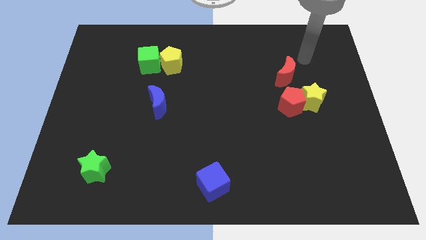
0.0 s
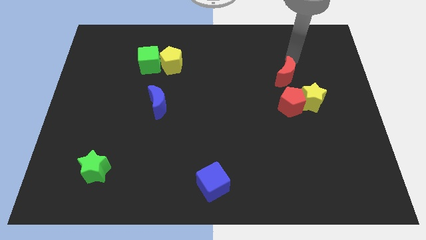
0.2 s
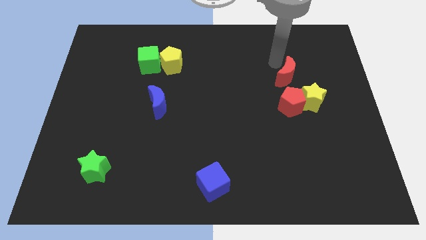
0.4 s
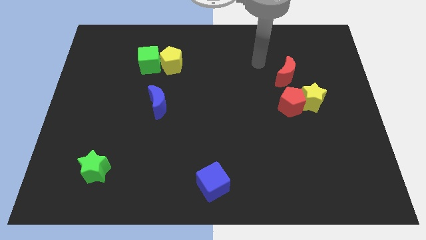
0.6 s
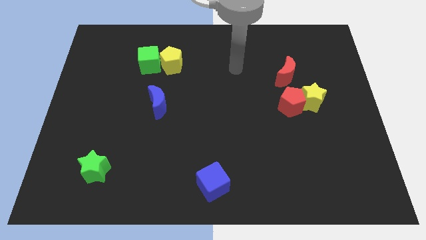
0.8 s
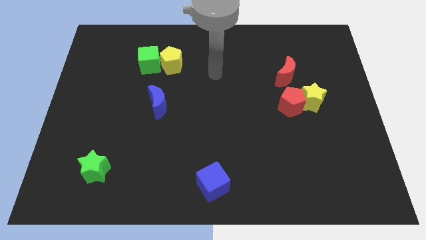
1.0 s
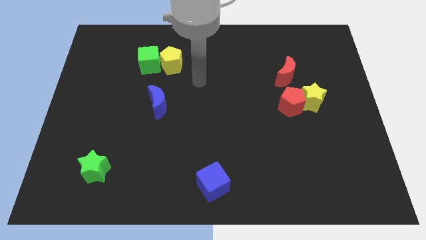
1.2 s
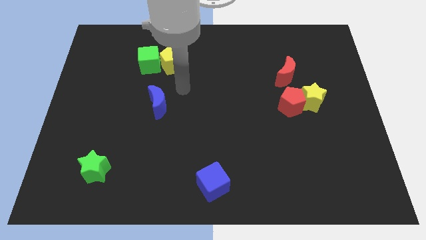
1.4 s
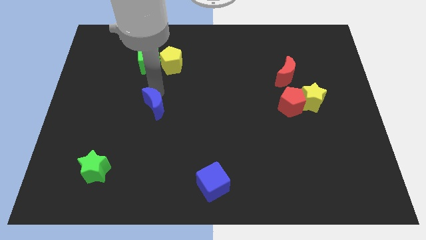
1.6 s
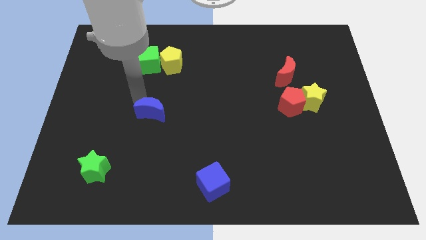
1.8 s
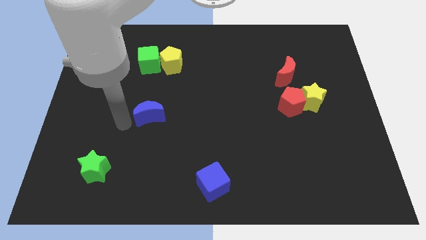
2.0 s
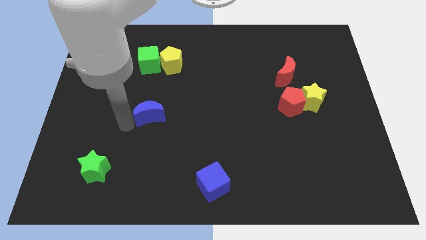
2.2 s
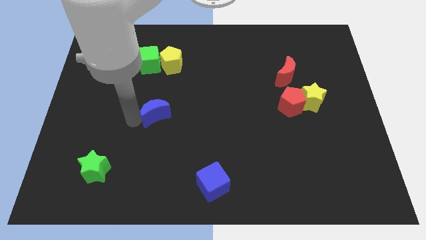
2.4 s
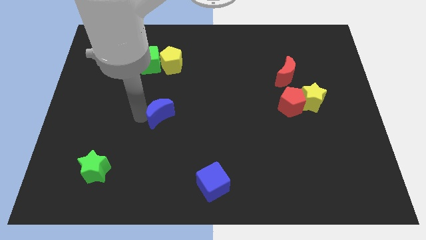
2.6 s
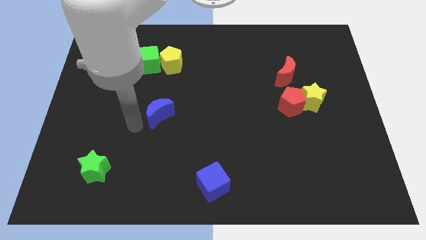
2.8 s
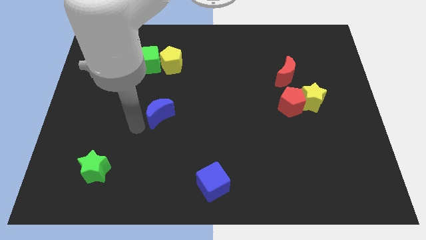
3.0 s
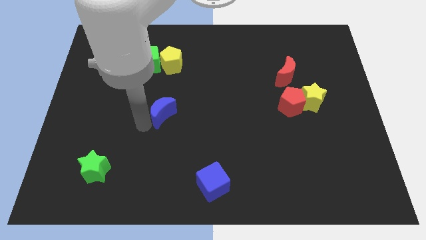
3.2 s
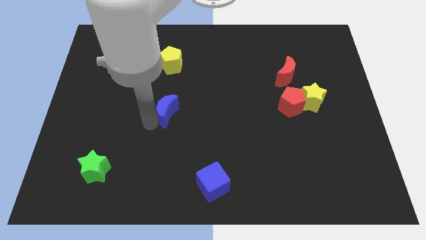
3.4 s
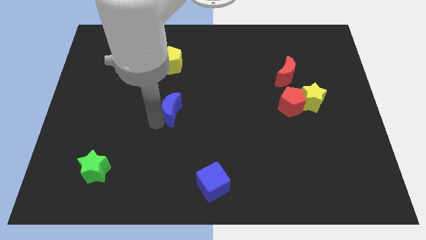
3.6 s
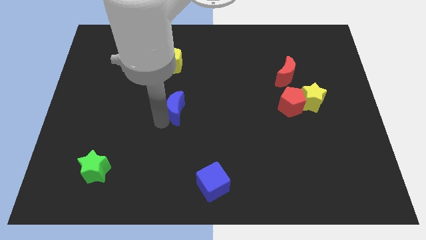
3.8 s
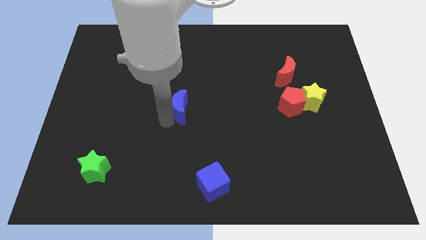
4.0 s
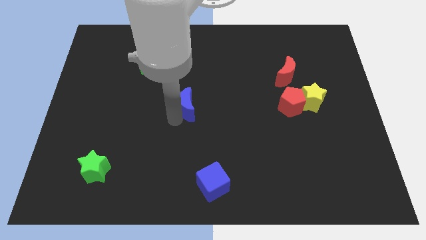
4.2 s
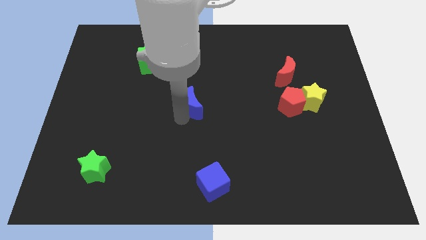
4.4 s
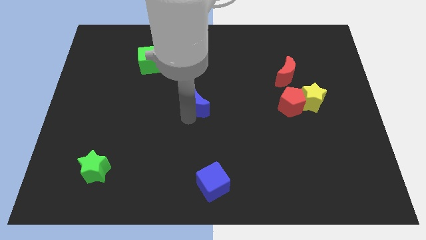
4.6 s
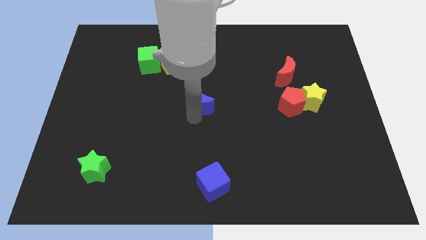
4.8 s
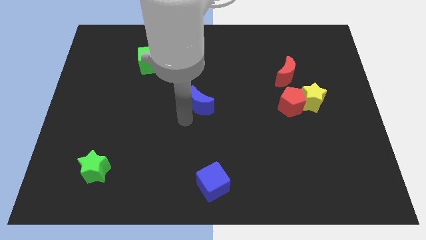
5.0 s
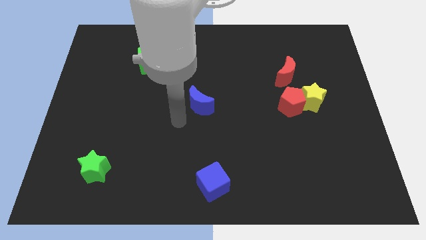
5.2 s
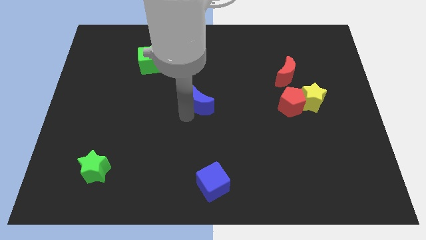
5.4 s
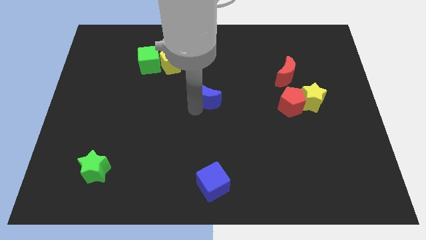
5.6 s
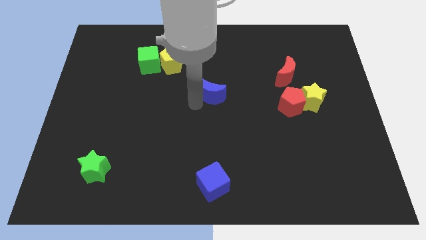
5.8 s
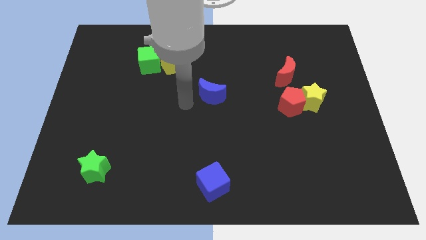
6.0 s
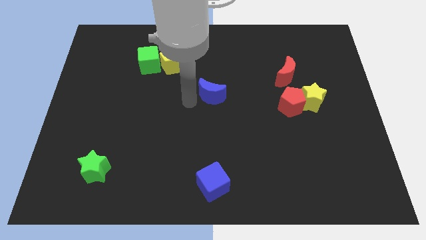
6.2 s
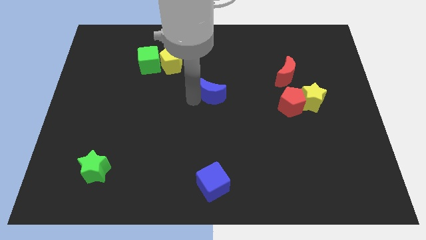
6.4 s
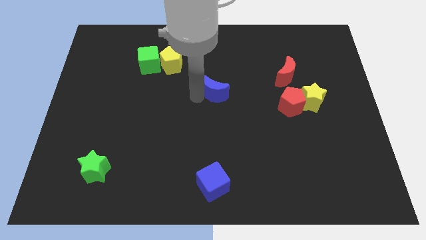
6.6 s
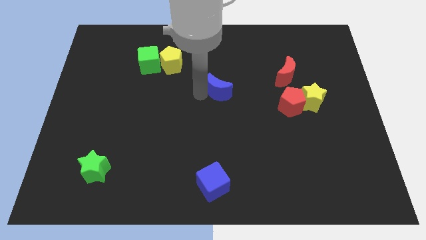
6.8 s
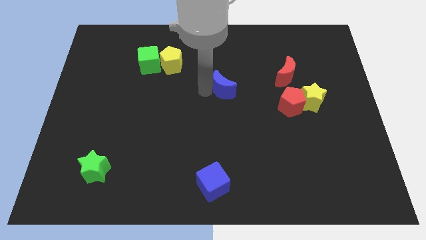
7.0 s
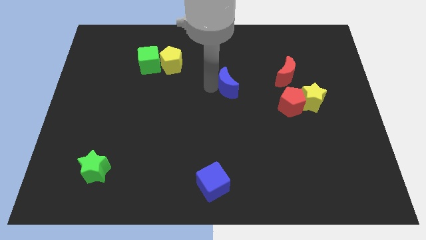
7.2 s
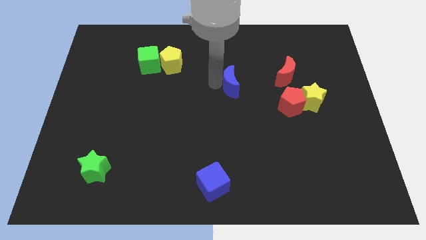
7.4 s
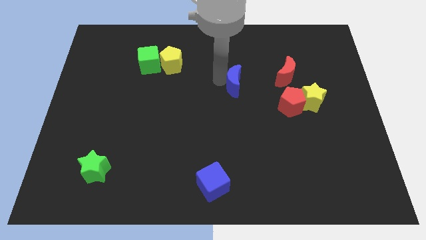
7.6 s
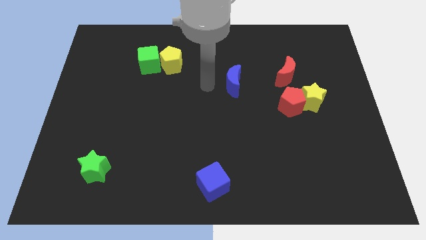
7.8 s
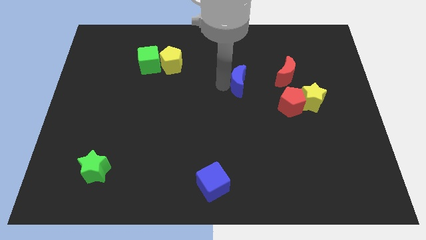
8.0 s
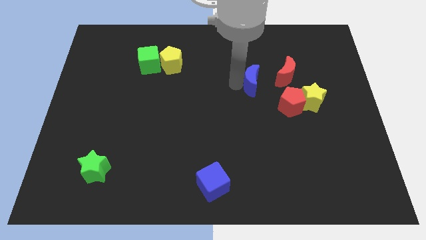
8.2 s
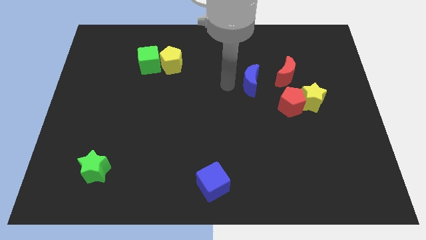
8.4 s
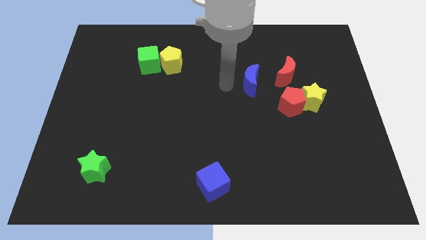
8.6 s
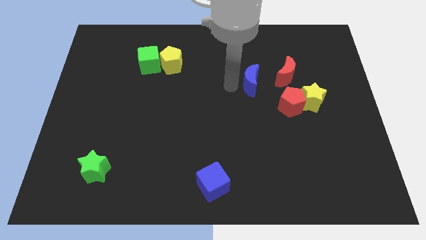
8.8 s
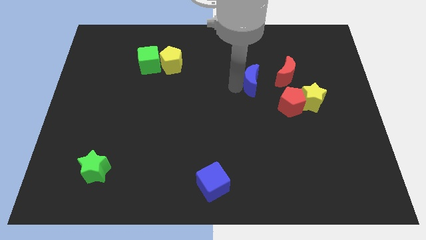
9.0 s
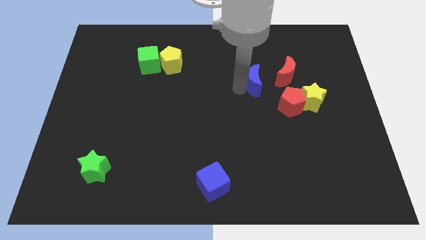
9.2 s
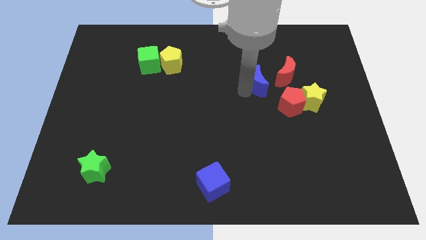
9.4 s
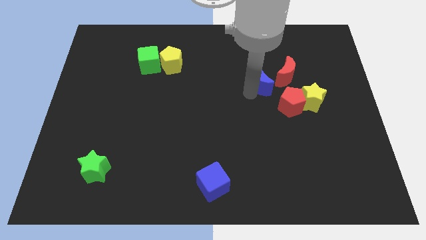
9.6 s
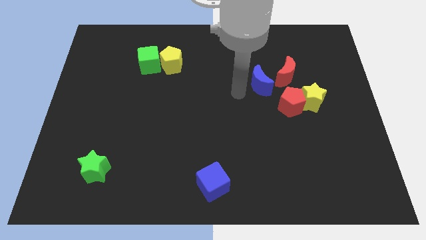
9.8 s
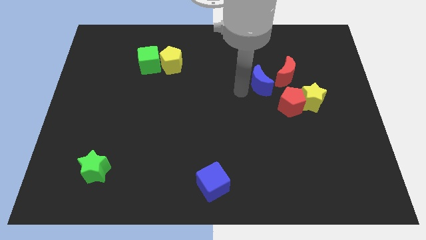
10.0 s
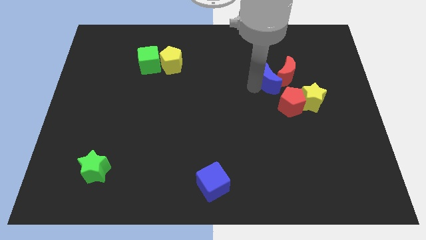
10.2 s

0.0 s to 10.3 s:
push the blue moon towards the red moon

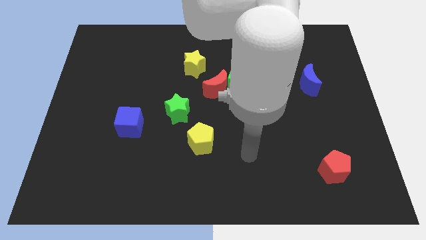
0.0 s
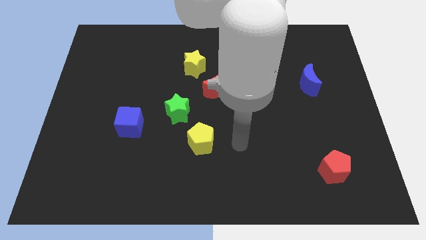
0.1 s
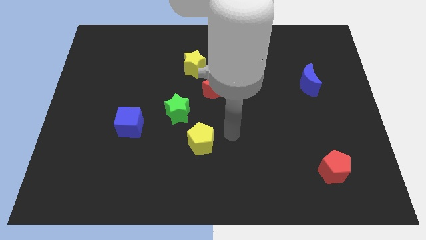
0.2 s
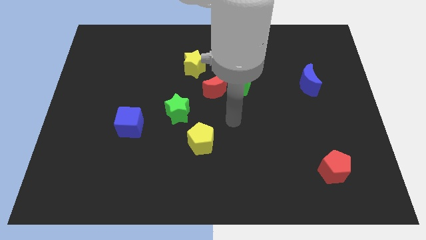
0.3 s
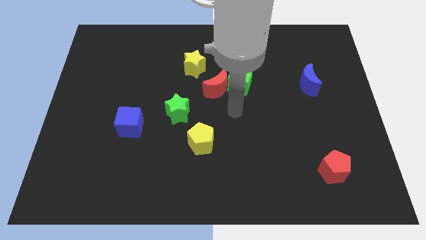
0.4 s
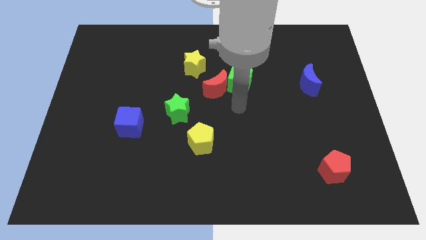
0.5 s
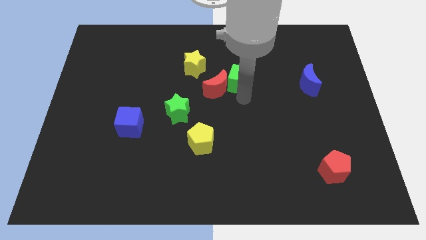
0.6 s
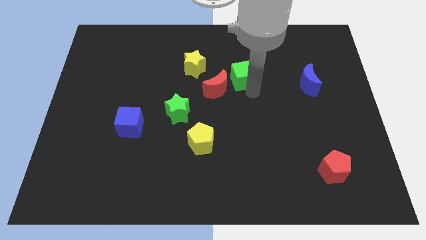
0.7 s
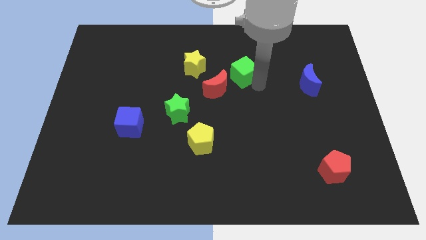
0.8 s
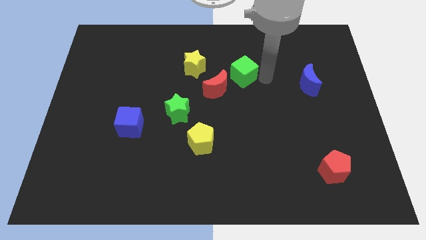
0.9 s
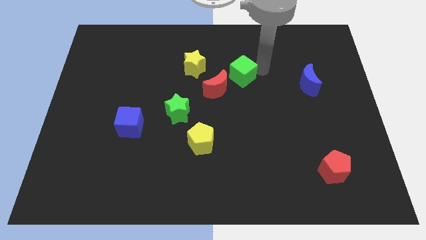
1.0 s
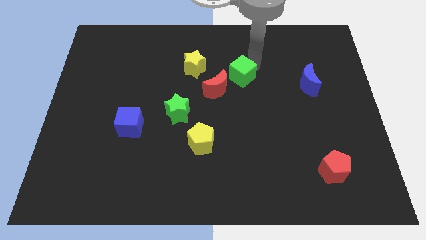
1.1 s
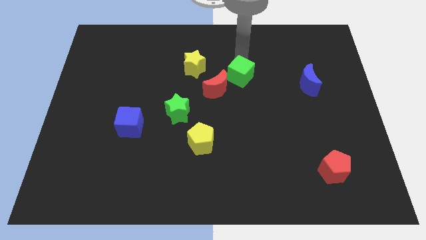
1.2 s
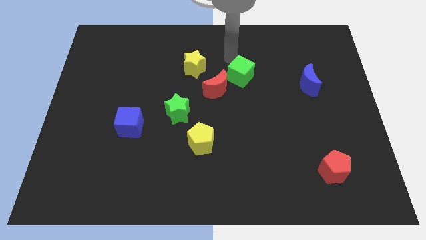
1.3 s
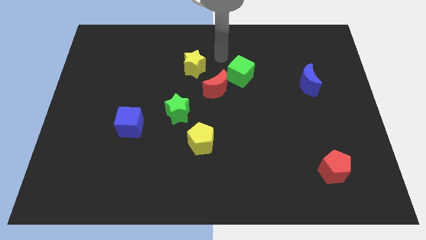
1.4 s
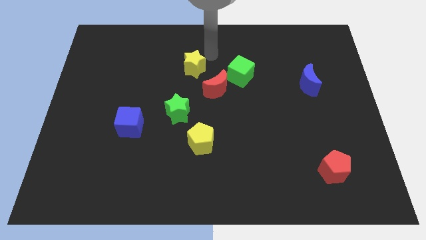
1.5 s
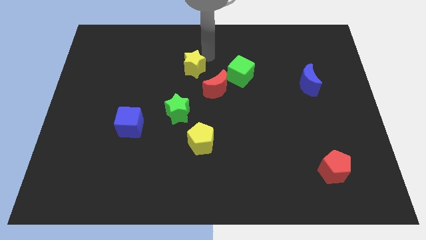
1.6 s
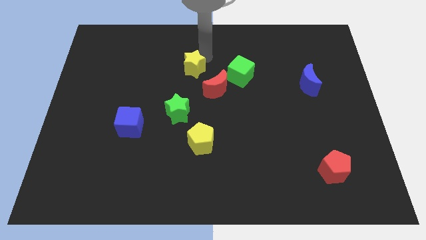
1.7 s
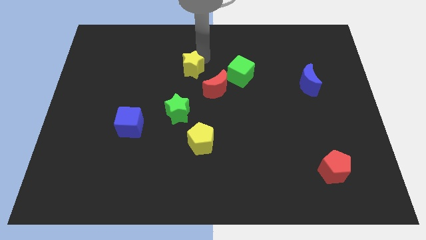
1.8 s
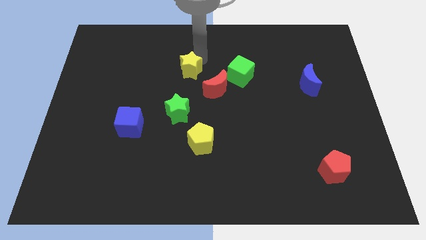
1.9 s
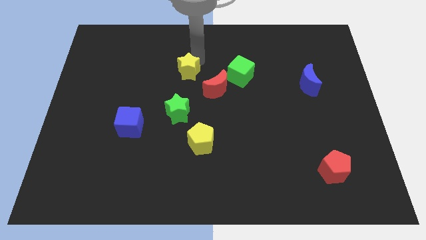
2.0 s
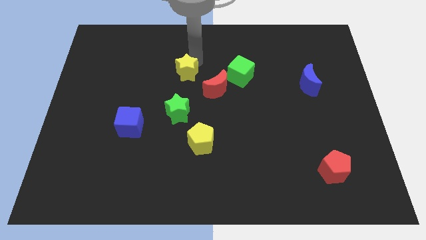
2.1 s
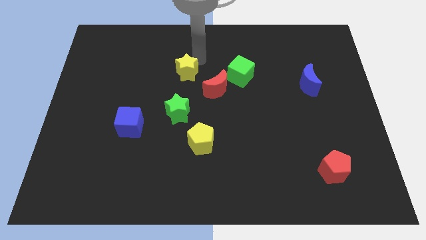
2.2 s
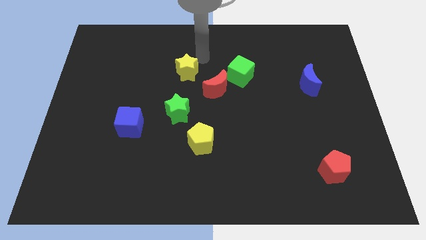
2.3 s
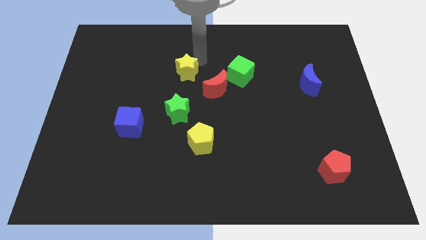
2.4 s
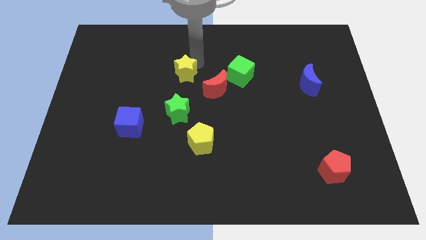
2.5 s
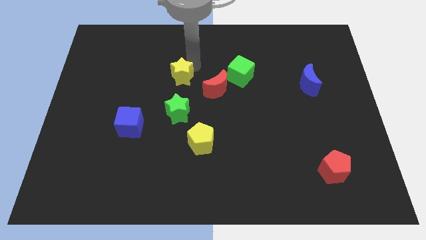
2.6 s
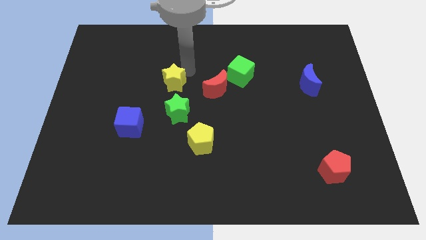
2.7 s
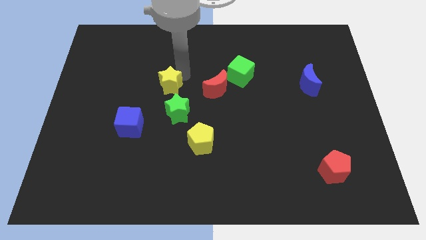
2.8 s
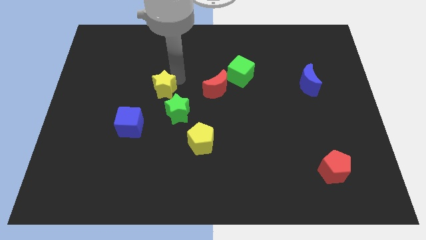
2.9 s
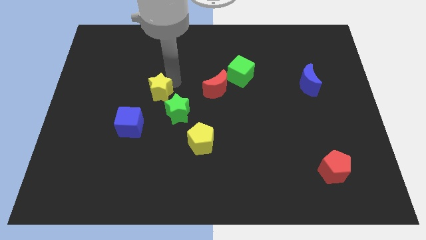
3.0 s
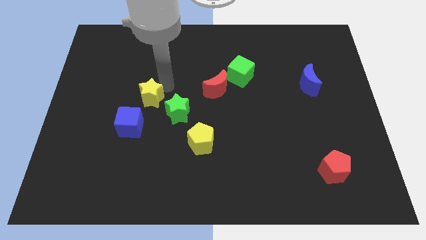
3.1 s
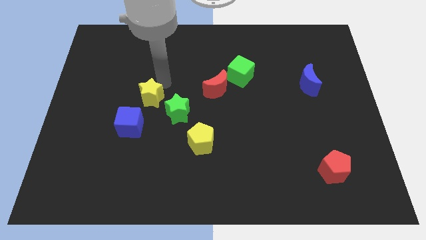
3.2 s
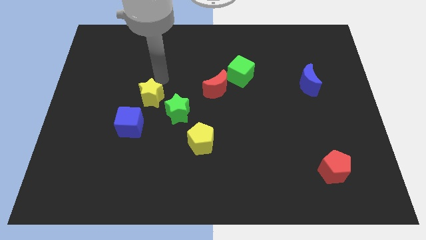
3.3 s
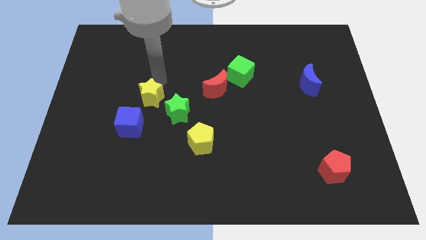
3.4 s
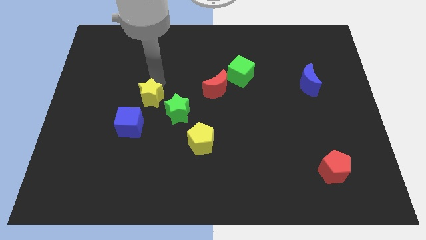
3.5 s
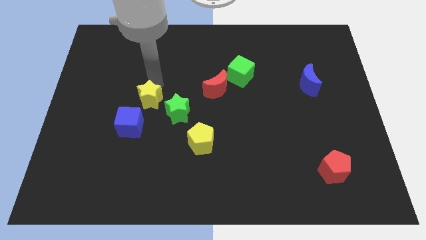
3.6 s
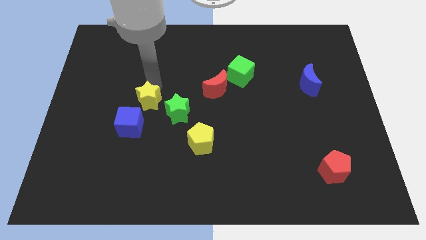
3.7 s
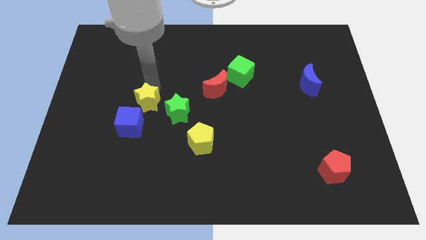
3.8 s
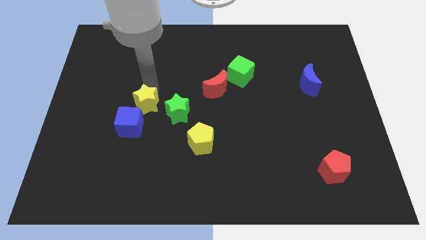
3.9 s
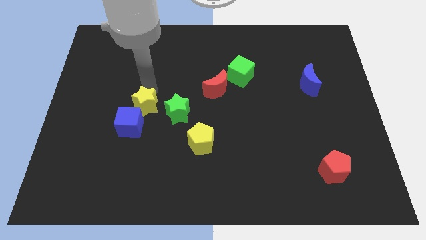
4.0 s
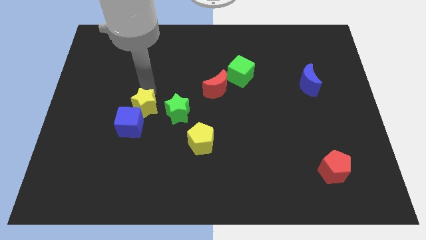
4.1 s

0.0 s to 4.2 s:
put the yellow star towards the blue cube
